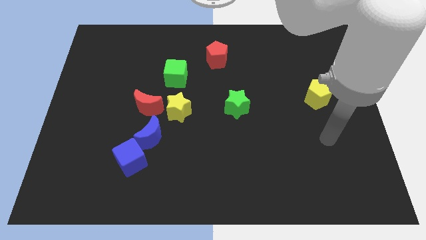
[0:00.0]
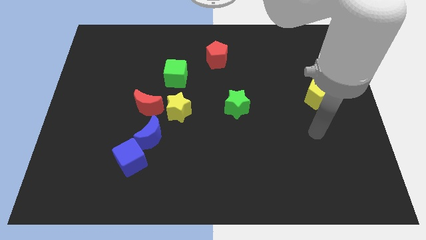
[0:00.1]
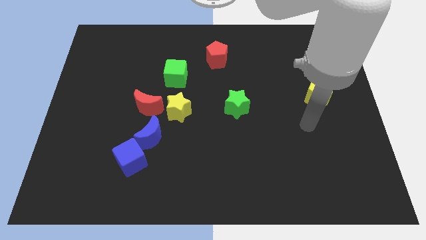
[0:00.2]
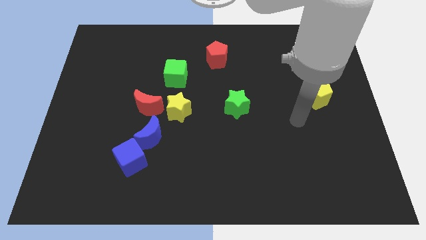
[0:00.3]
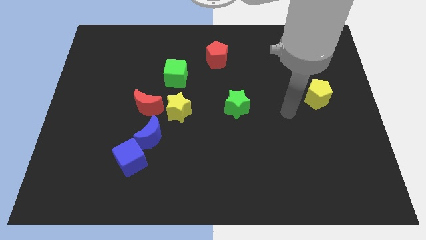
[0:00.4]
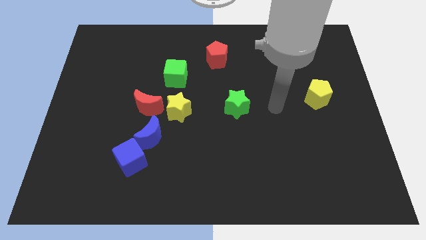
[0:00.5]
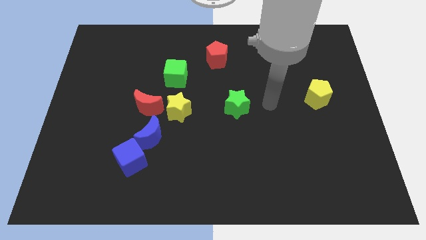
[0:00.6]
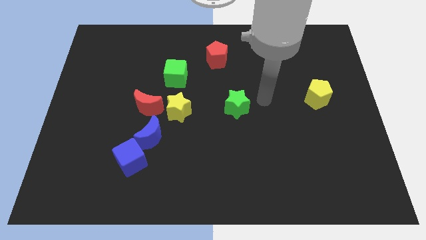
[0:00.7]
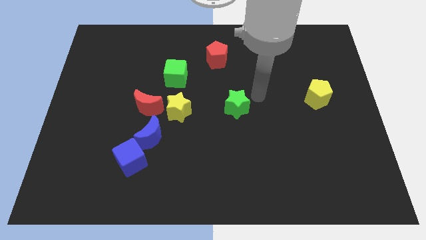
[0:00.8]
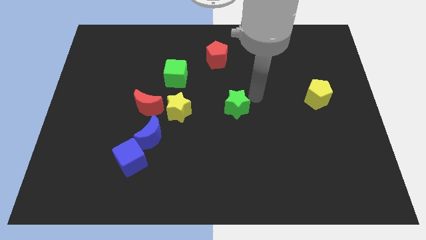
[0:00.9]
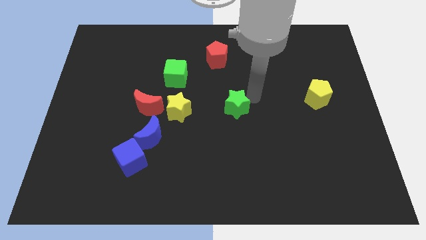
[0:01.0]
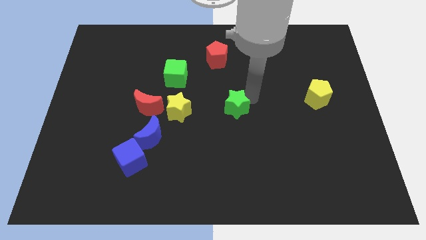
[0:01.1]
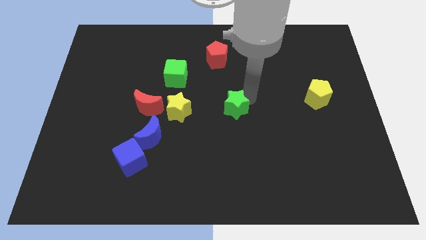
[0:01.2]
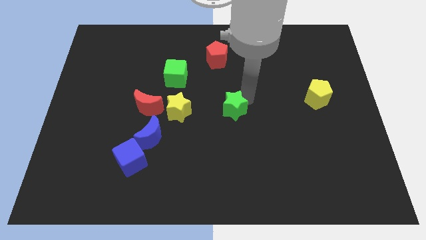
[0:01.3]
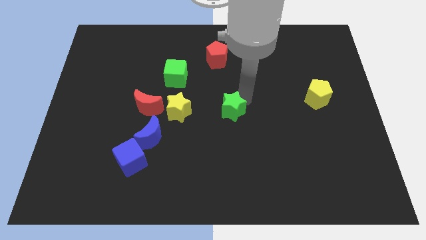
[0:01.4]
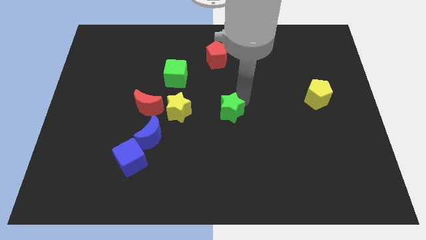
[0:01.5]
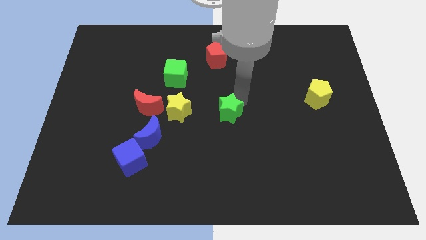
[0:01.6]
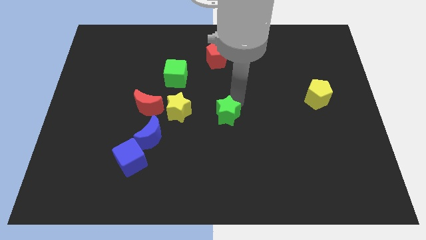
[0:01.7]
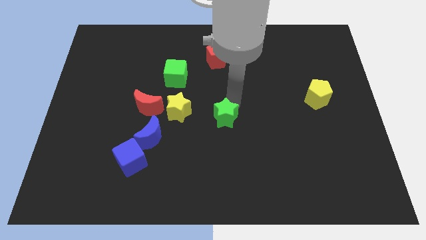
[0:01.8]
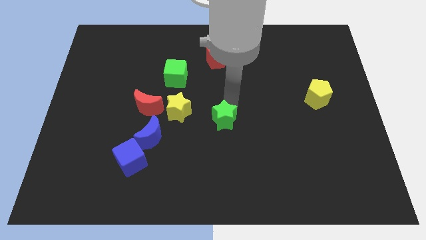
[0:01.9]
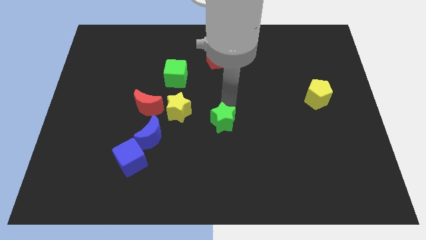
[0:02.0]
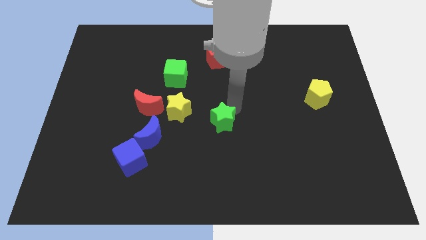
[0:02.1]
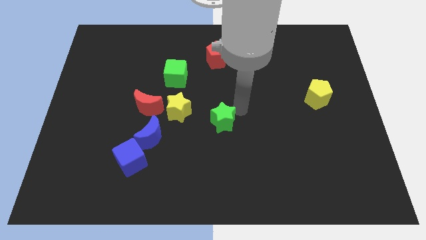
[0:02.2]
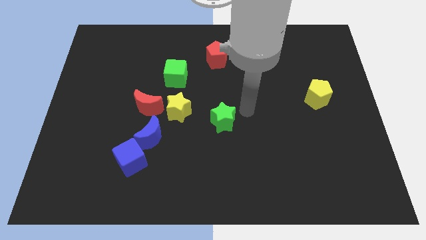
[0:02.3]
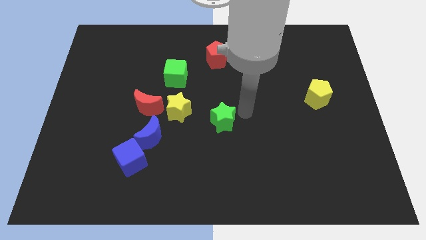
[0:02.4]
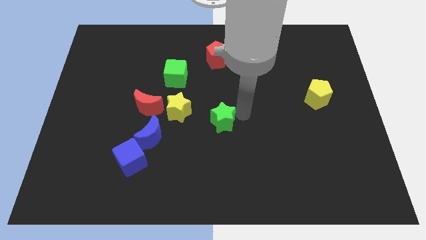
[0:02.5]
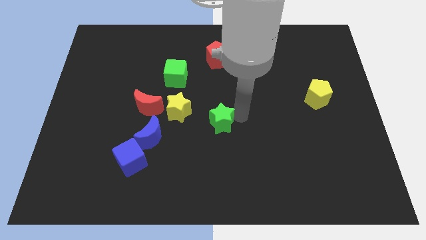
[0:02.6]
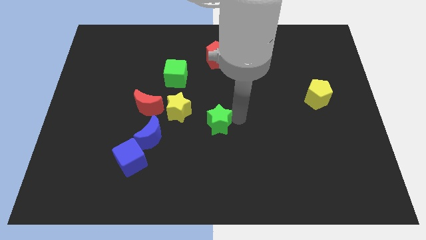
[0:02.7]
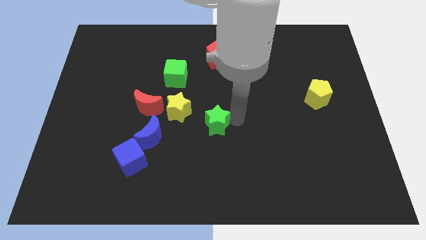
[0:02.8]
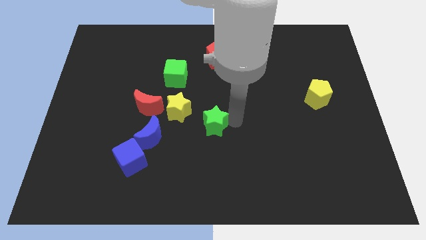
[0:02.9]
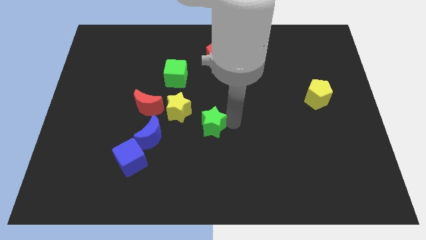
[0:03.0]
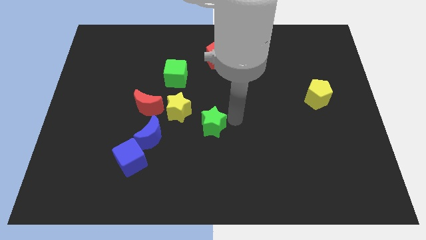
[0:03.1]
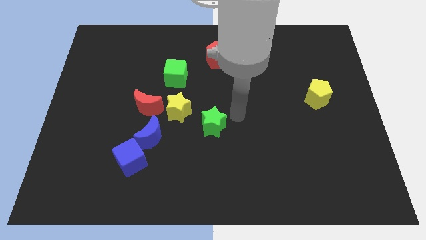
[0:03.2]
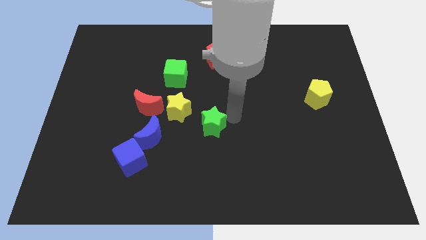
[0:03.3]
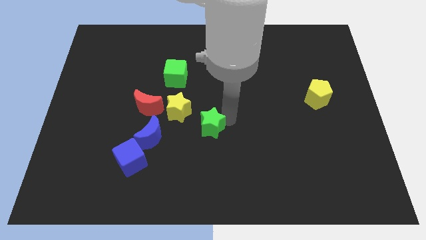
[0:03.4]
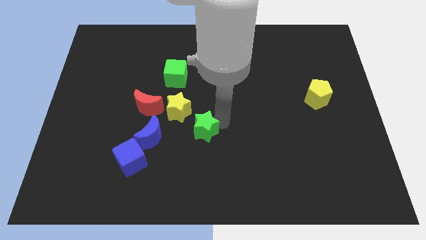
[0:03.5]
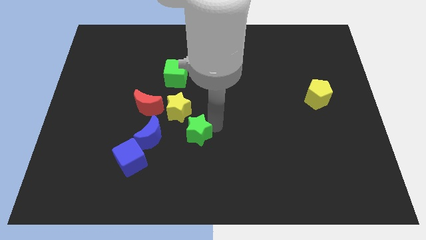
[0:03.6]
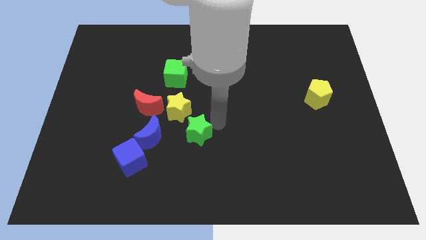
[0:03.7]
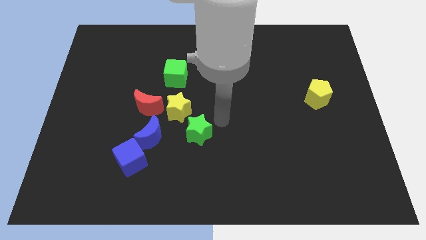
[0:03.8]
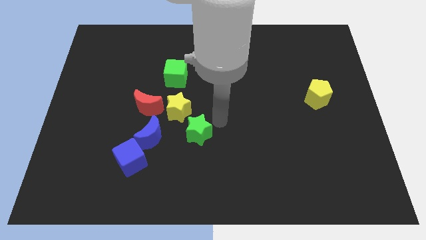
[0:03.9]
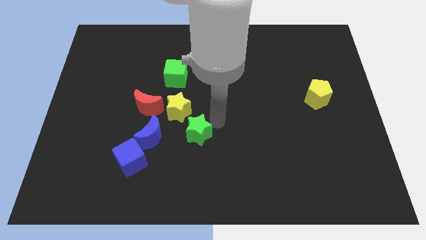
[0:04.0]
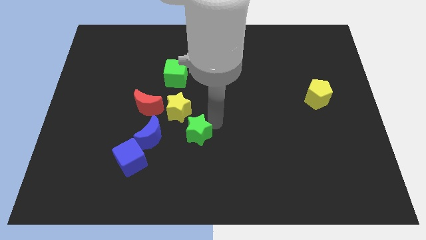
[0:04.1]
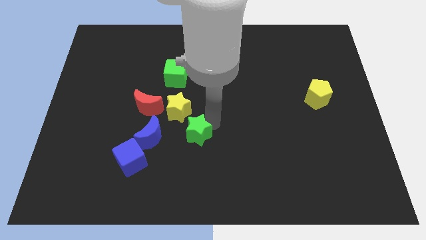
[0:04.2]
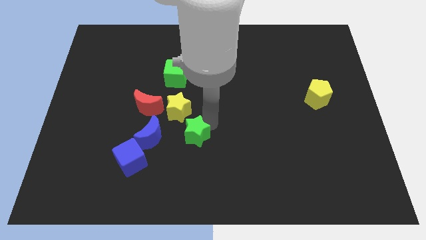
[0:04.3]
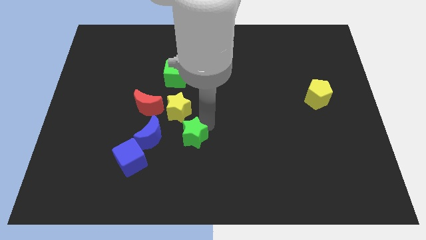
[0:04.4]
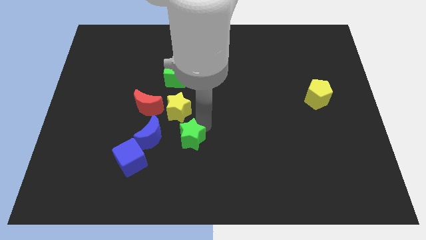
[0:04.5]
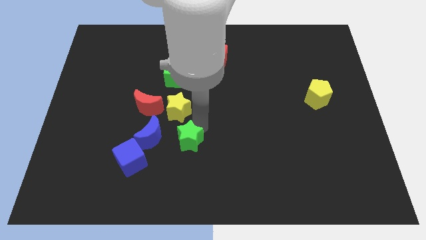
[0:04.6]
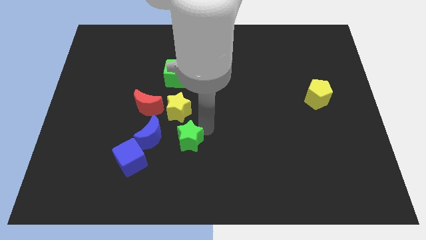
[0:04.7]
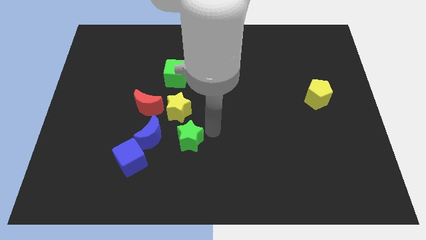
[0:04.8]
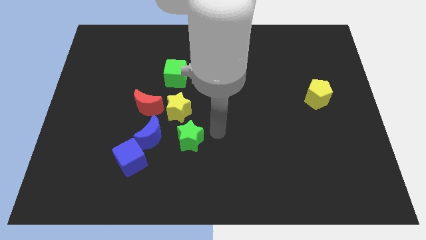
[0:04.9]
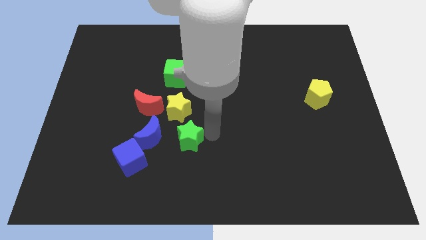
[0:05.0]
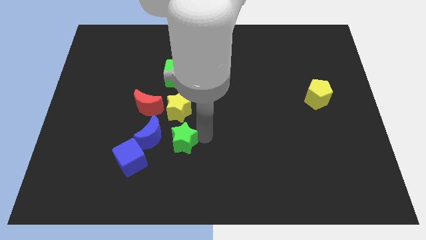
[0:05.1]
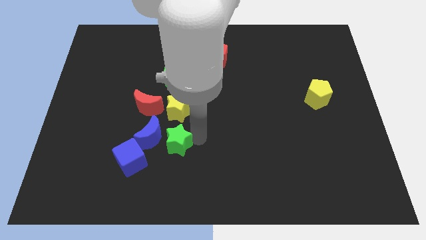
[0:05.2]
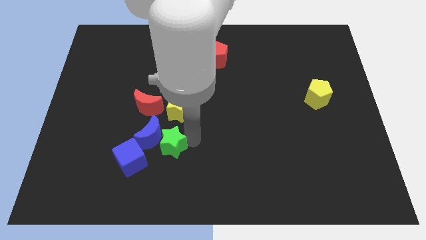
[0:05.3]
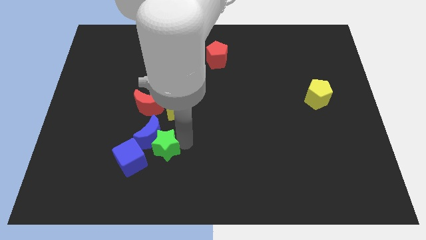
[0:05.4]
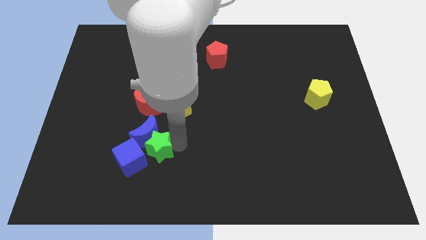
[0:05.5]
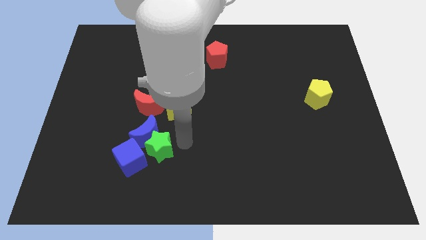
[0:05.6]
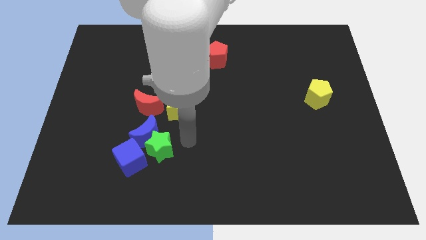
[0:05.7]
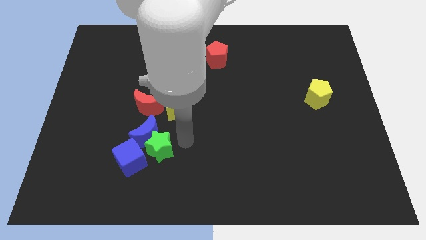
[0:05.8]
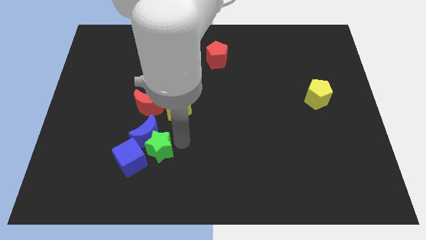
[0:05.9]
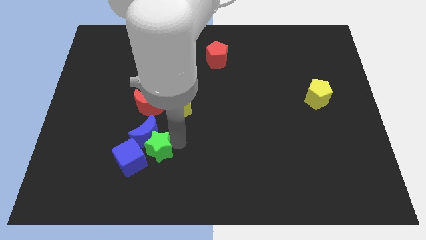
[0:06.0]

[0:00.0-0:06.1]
slide the green star to the blue cube
